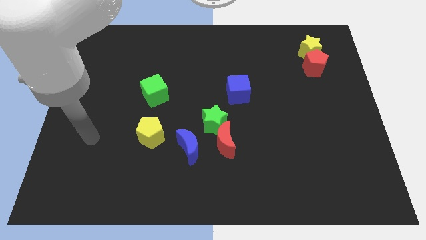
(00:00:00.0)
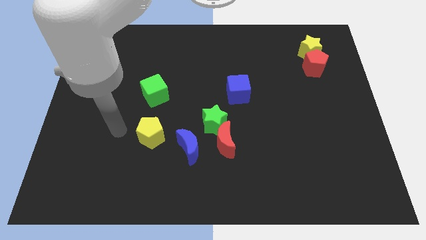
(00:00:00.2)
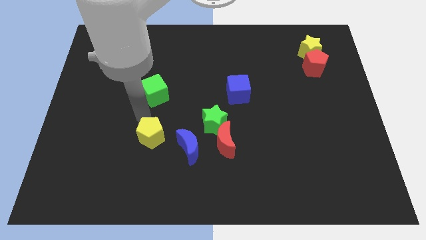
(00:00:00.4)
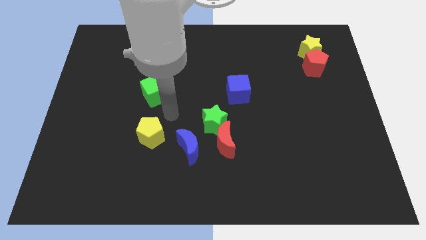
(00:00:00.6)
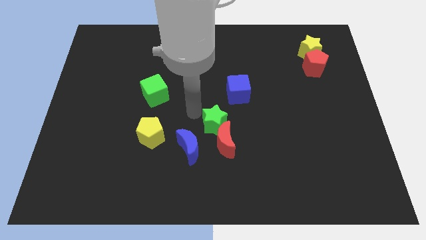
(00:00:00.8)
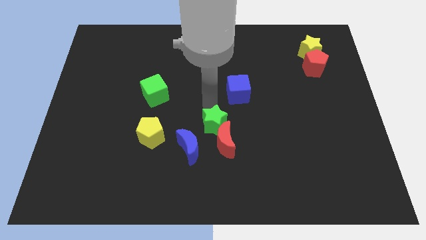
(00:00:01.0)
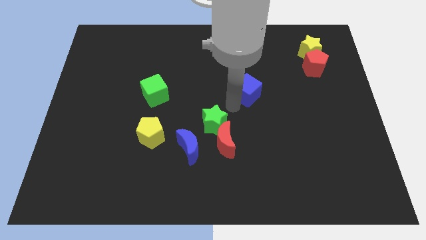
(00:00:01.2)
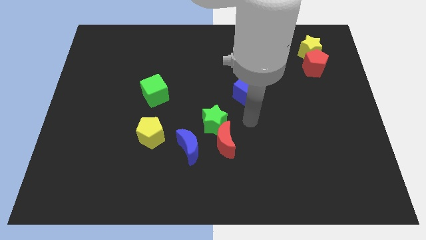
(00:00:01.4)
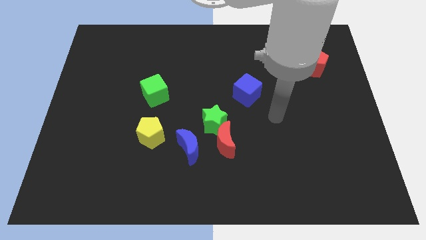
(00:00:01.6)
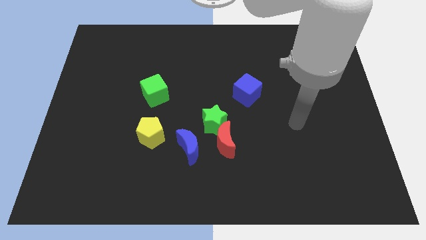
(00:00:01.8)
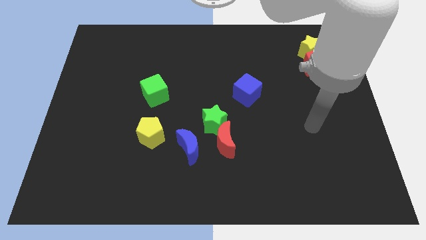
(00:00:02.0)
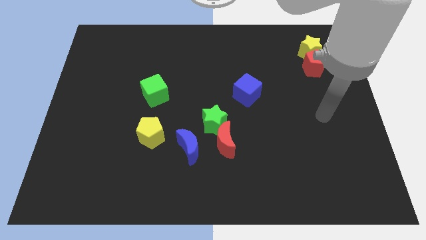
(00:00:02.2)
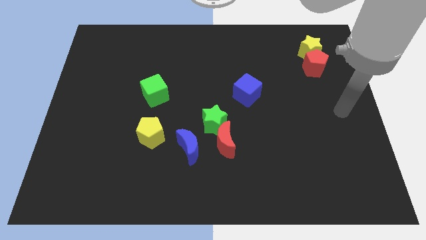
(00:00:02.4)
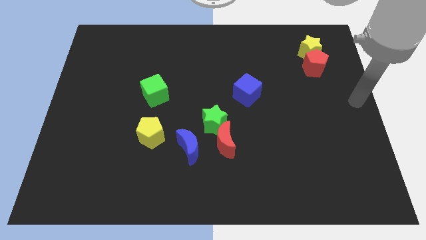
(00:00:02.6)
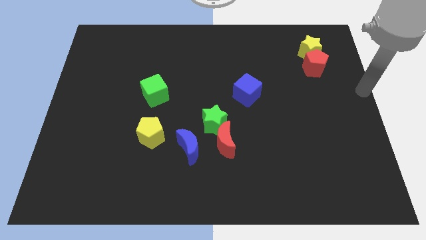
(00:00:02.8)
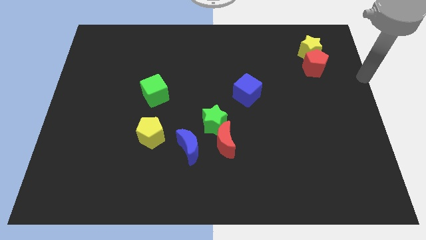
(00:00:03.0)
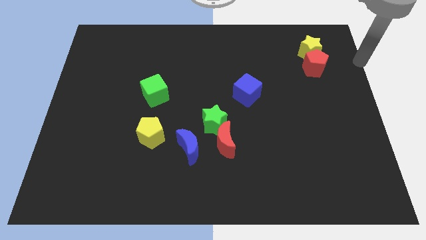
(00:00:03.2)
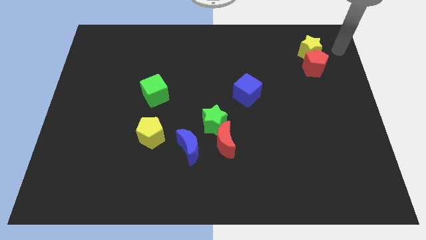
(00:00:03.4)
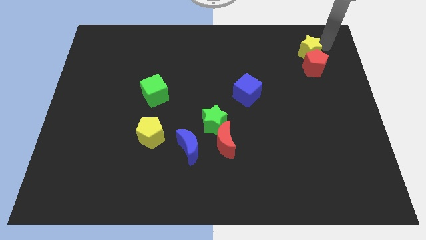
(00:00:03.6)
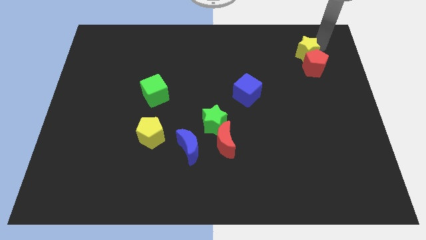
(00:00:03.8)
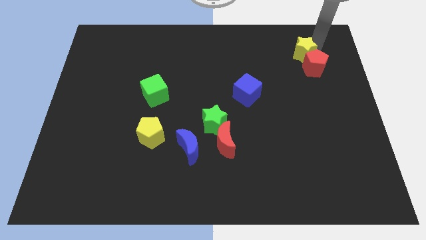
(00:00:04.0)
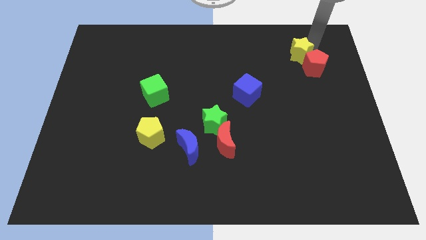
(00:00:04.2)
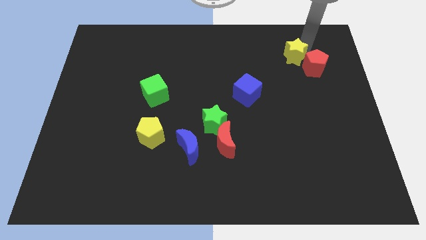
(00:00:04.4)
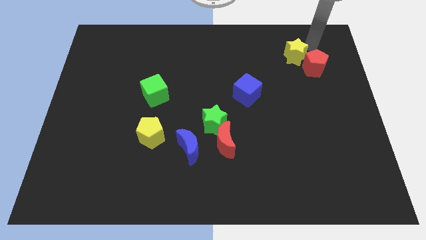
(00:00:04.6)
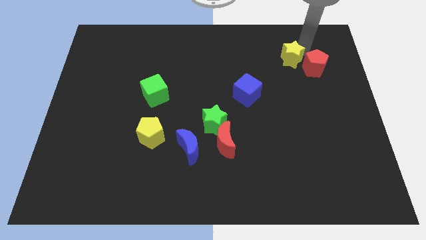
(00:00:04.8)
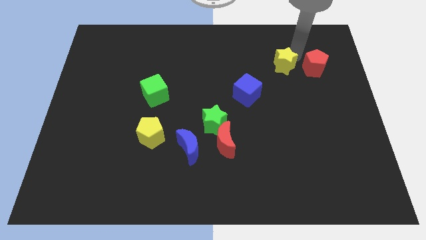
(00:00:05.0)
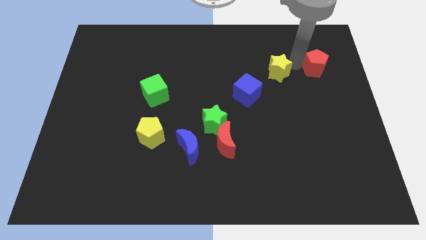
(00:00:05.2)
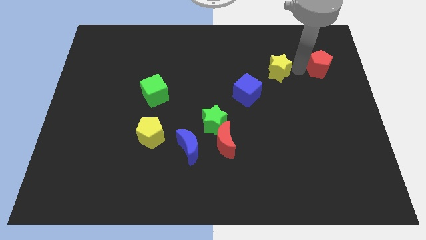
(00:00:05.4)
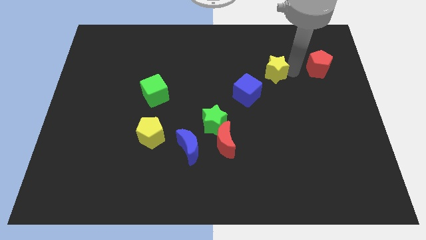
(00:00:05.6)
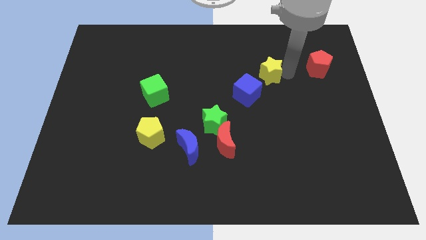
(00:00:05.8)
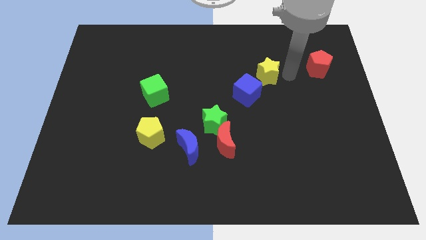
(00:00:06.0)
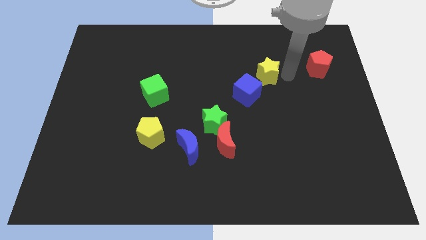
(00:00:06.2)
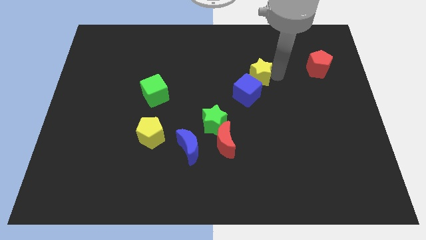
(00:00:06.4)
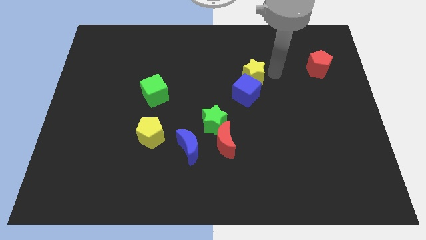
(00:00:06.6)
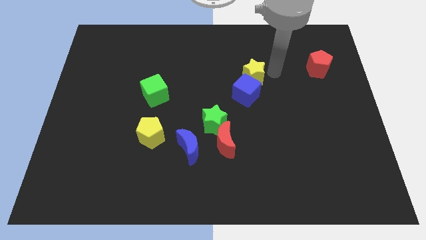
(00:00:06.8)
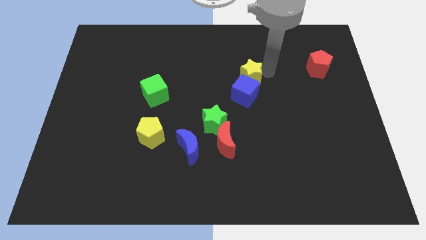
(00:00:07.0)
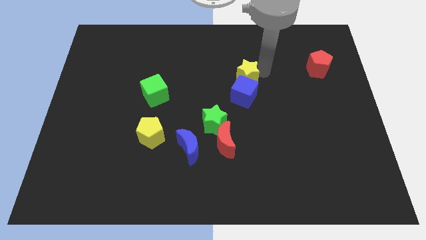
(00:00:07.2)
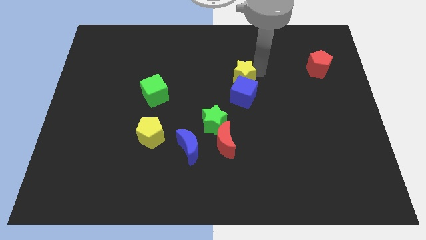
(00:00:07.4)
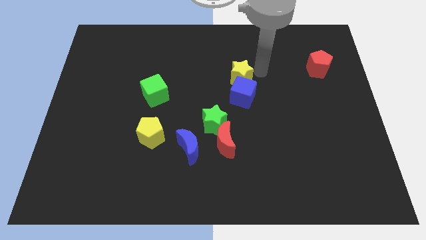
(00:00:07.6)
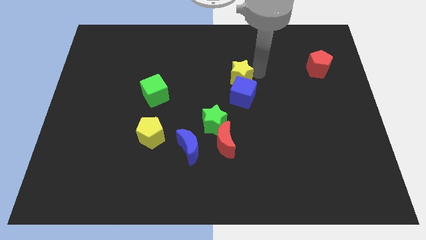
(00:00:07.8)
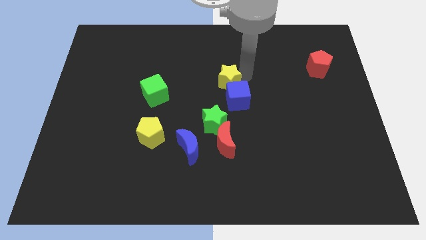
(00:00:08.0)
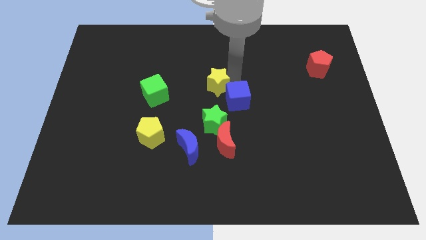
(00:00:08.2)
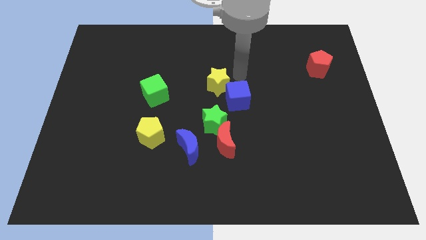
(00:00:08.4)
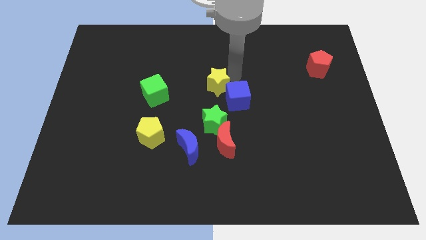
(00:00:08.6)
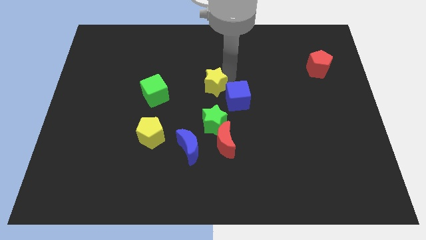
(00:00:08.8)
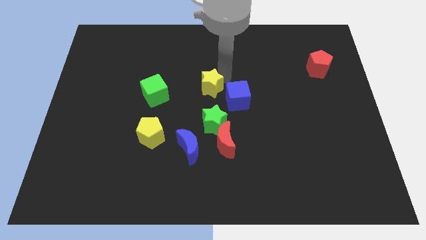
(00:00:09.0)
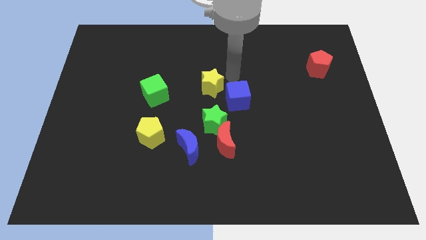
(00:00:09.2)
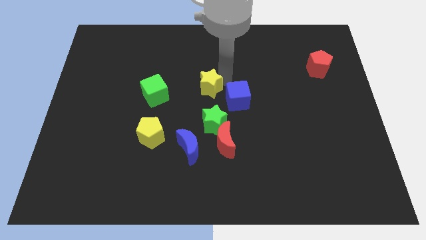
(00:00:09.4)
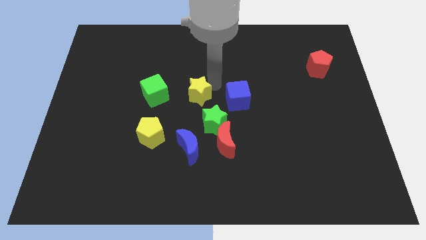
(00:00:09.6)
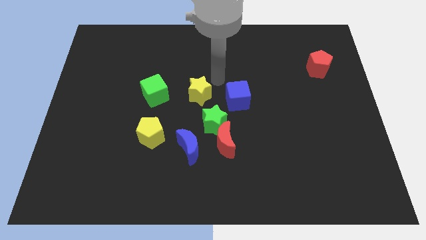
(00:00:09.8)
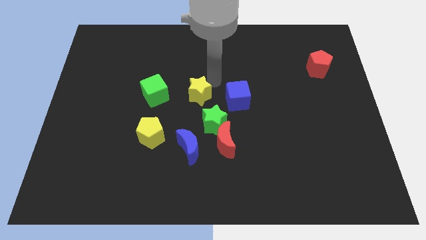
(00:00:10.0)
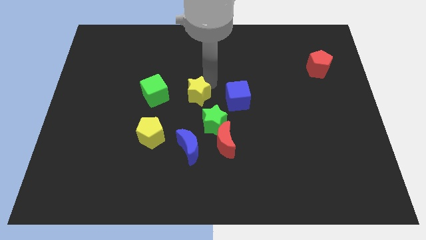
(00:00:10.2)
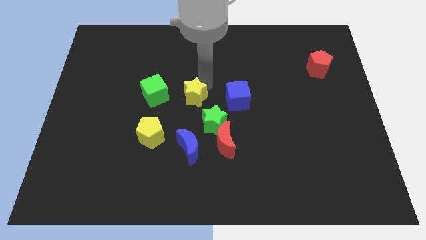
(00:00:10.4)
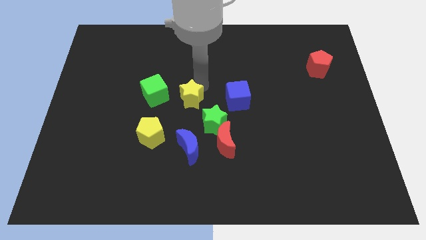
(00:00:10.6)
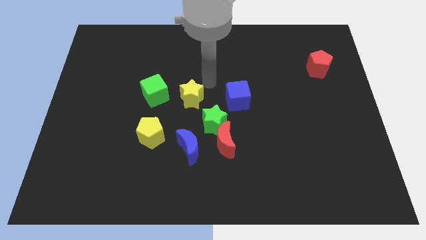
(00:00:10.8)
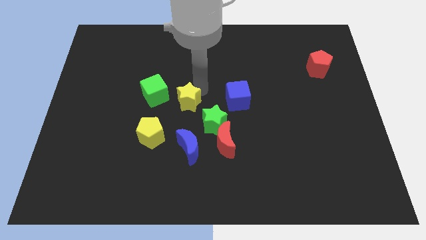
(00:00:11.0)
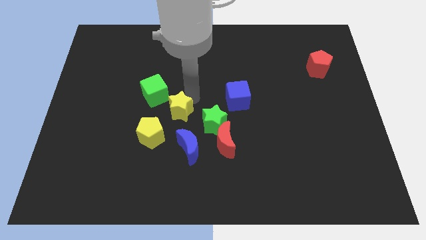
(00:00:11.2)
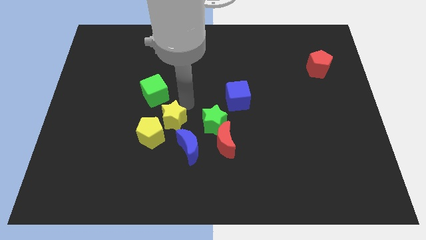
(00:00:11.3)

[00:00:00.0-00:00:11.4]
put the yellow star close to the yellow pentagon
